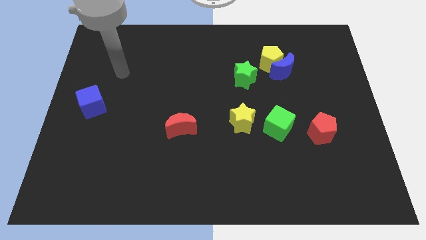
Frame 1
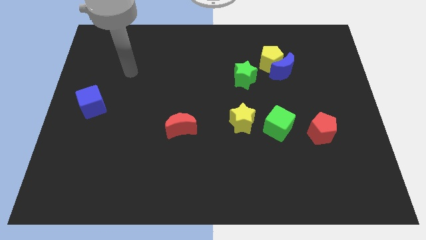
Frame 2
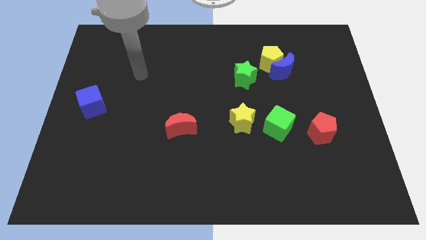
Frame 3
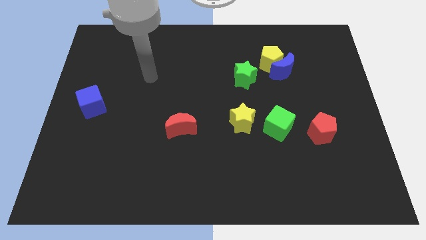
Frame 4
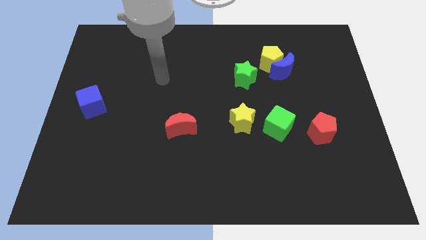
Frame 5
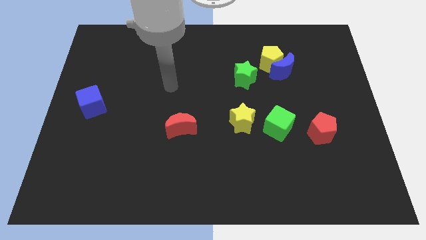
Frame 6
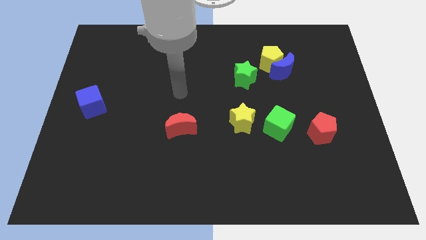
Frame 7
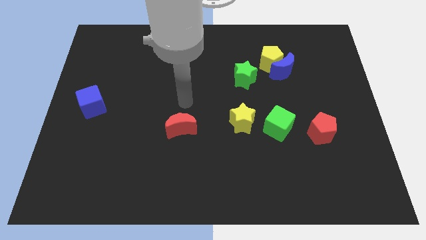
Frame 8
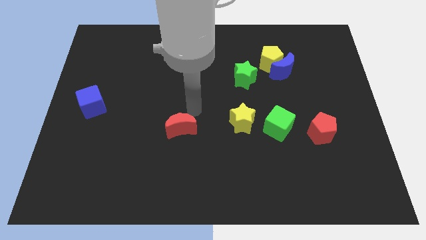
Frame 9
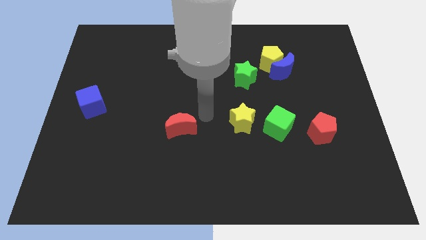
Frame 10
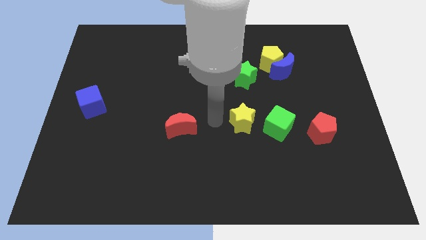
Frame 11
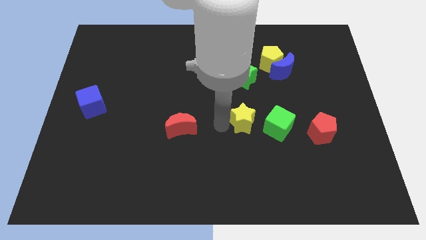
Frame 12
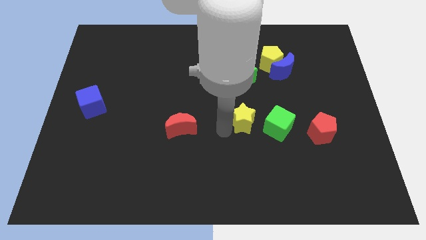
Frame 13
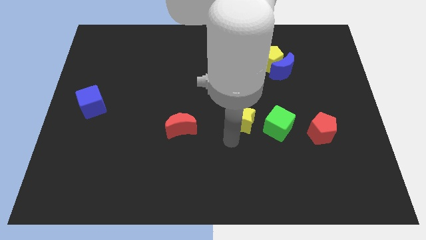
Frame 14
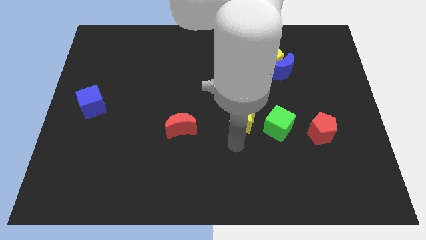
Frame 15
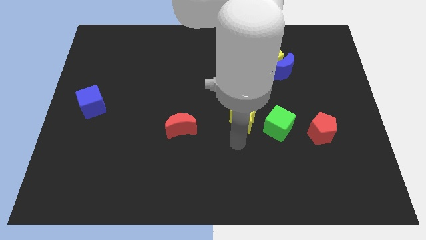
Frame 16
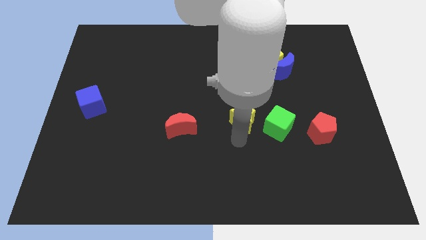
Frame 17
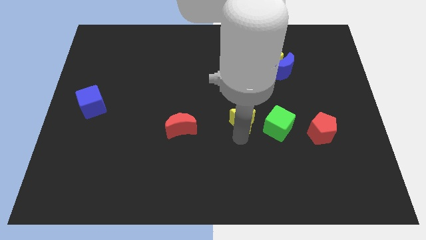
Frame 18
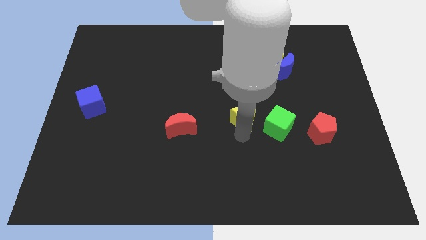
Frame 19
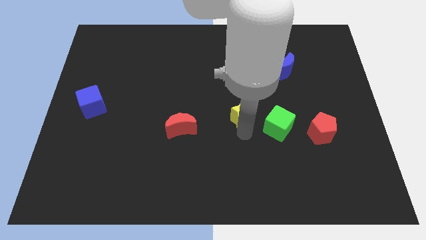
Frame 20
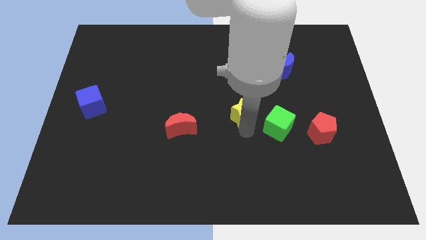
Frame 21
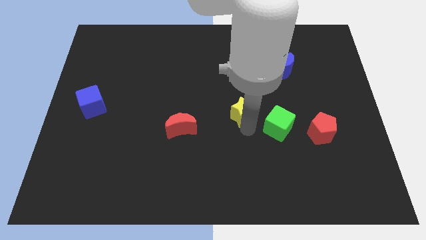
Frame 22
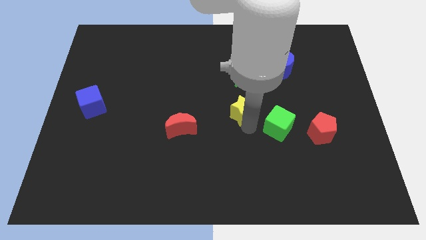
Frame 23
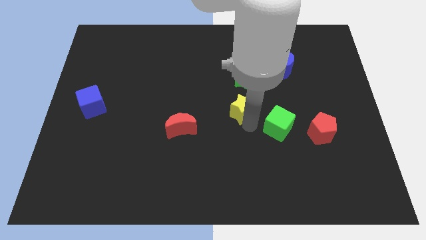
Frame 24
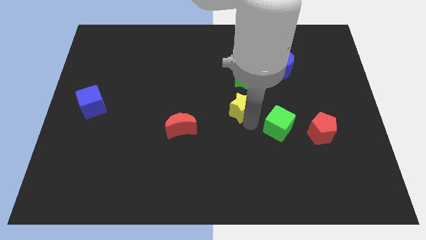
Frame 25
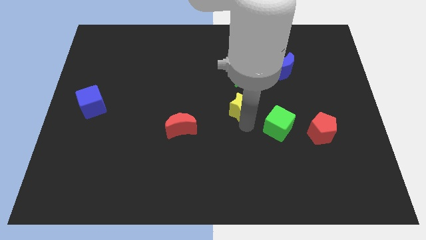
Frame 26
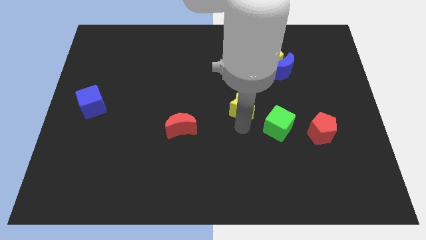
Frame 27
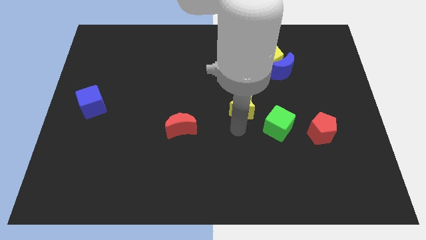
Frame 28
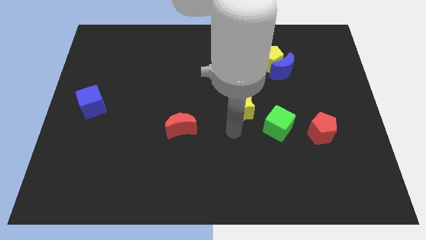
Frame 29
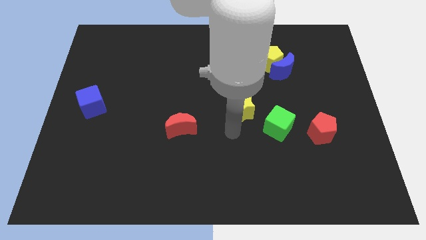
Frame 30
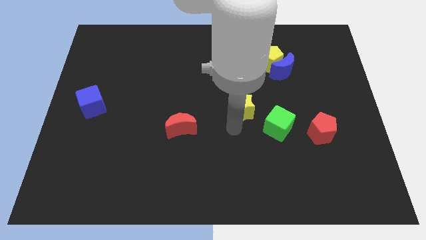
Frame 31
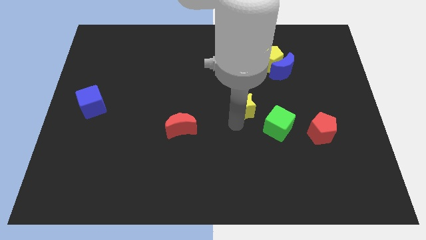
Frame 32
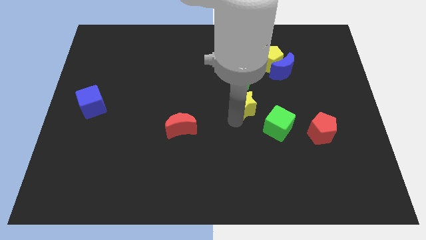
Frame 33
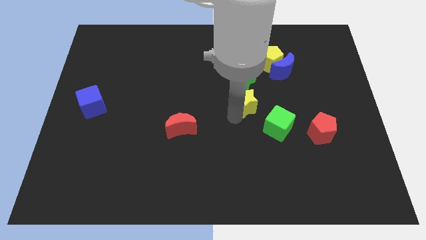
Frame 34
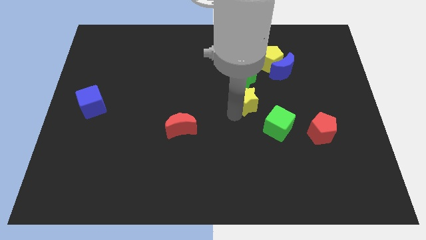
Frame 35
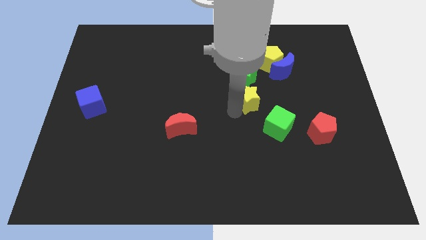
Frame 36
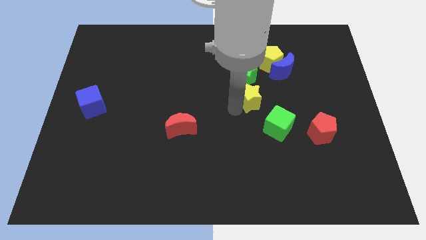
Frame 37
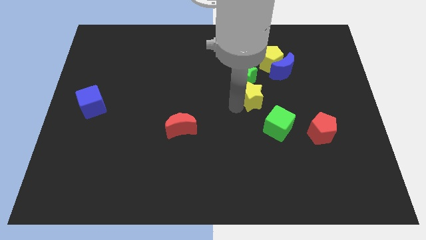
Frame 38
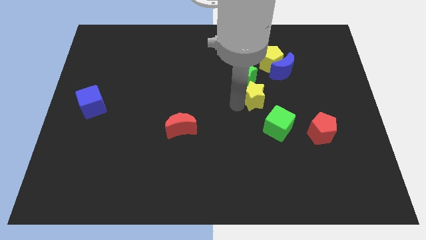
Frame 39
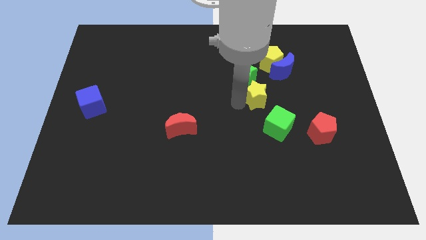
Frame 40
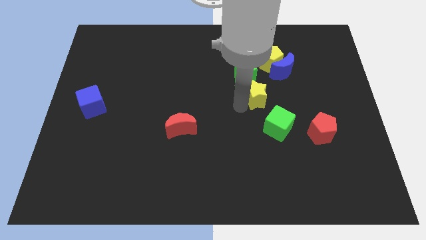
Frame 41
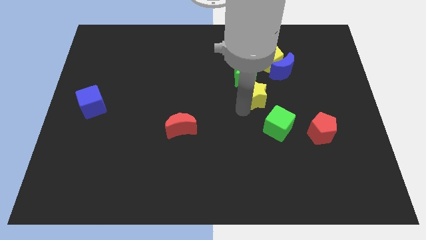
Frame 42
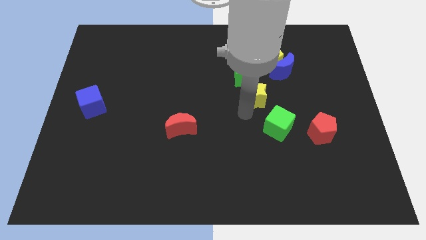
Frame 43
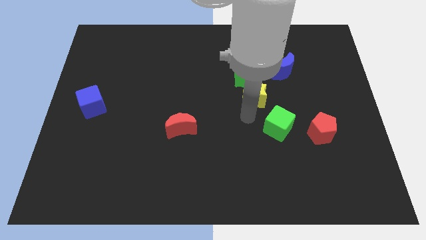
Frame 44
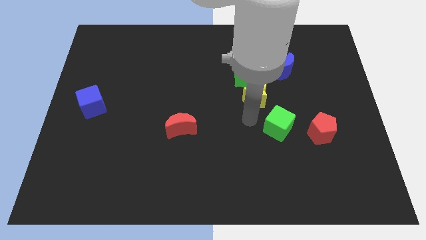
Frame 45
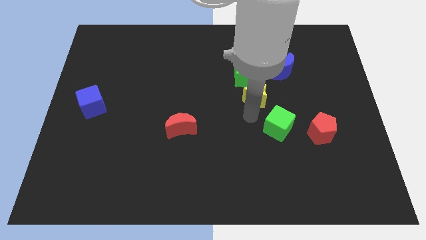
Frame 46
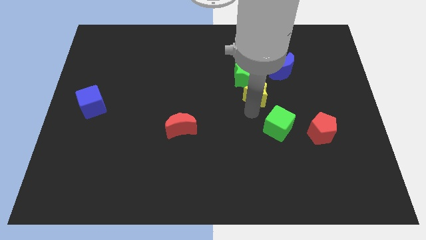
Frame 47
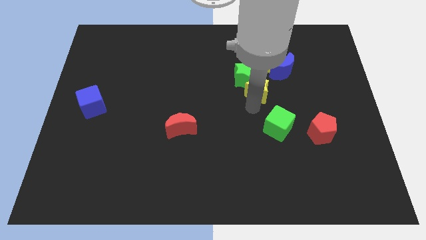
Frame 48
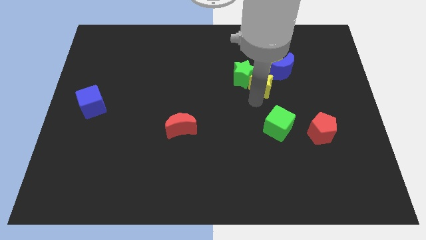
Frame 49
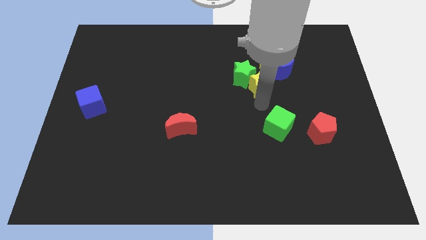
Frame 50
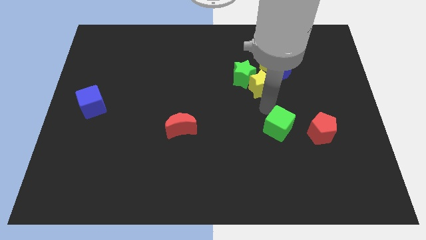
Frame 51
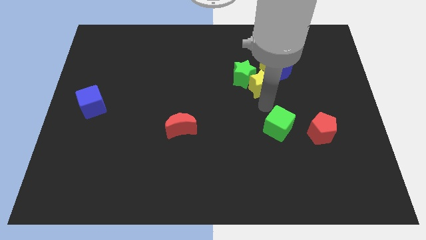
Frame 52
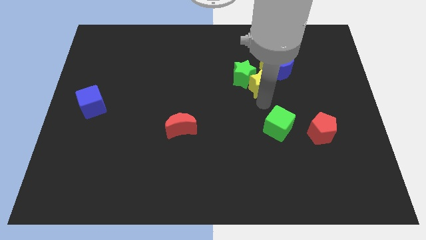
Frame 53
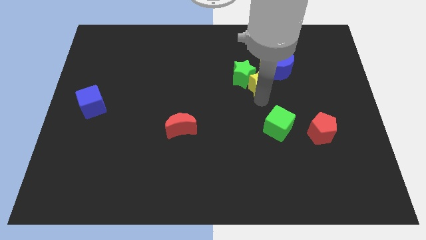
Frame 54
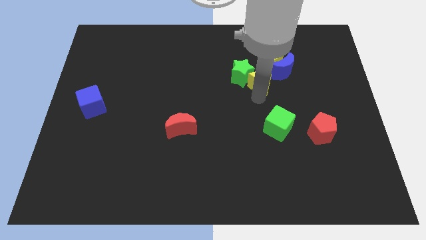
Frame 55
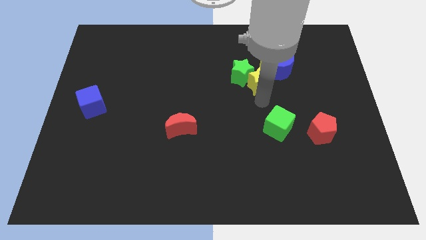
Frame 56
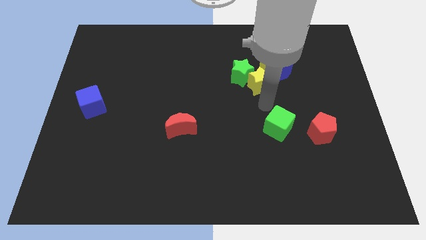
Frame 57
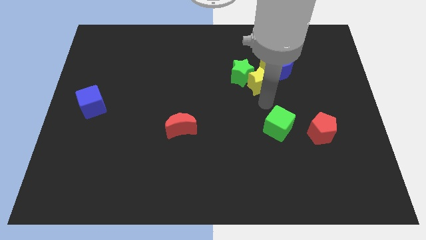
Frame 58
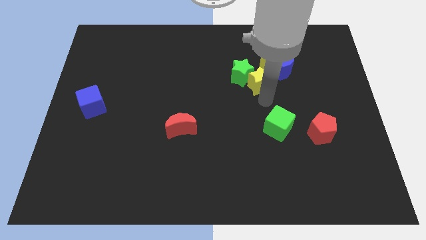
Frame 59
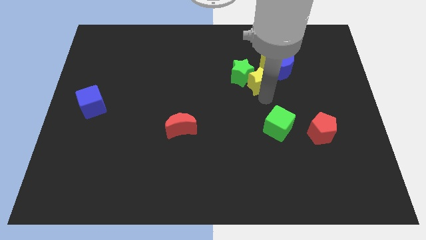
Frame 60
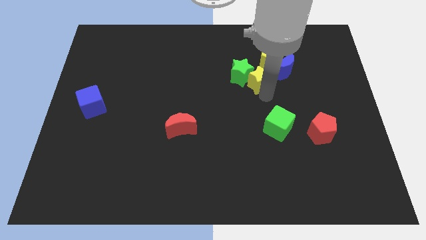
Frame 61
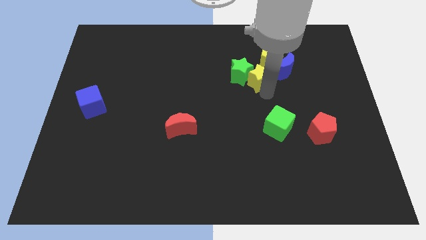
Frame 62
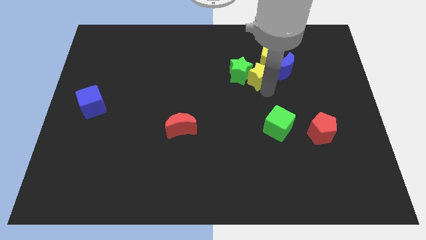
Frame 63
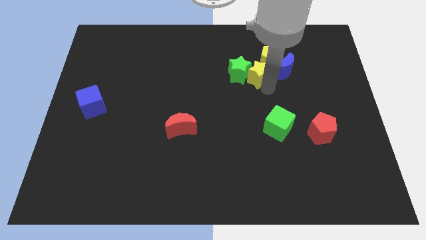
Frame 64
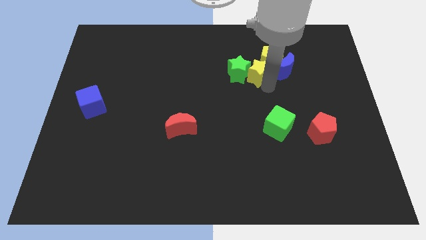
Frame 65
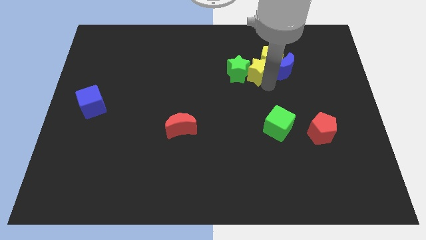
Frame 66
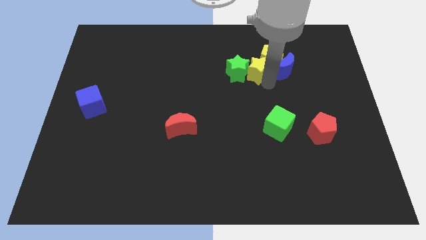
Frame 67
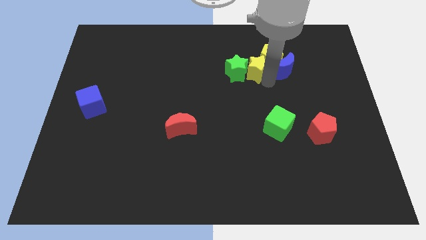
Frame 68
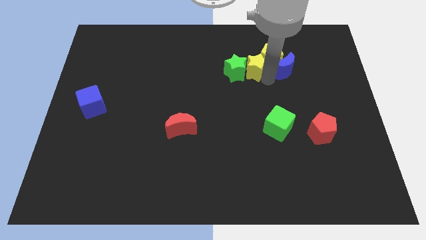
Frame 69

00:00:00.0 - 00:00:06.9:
move the yellow star to the top left of the blue moon
